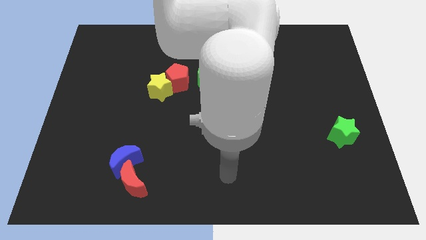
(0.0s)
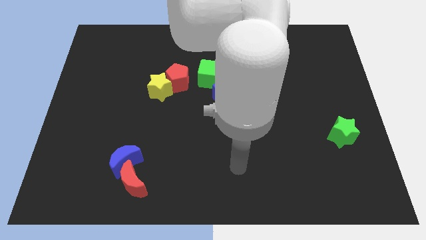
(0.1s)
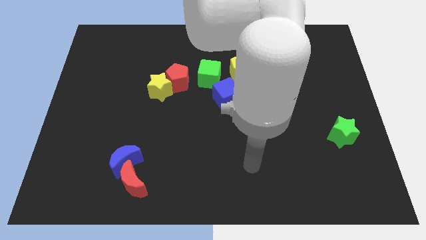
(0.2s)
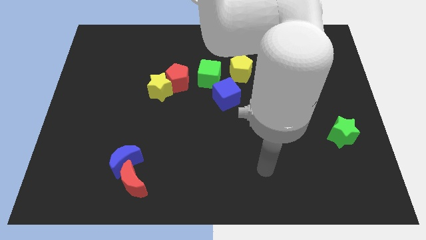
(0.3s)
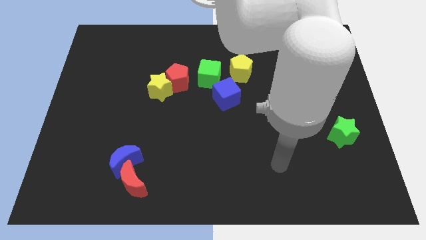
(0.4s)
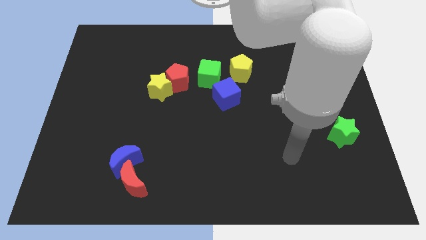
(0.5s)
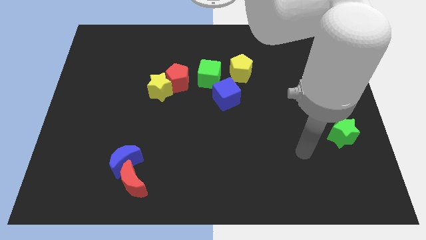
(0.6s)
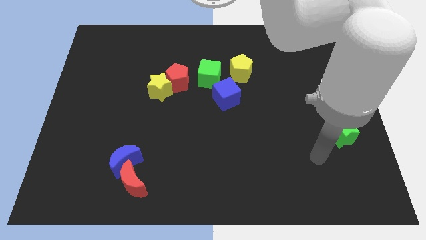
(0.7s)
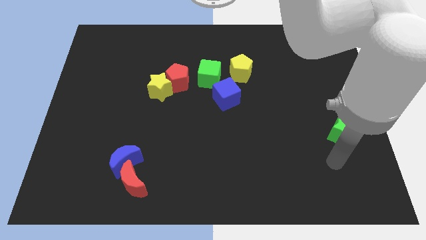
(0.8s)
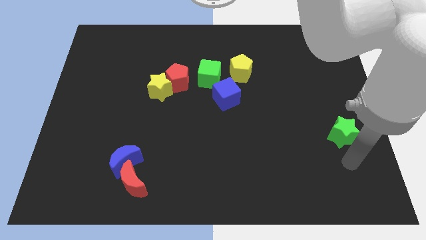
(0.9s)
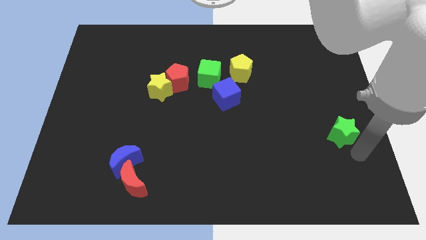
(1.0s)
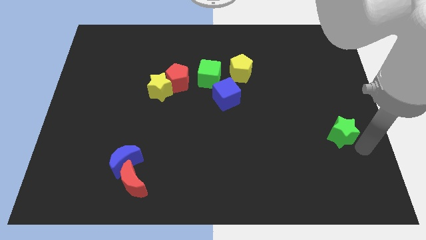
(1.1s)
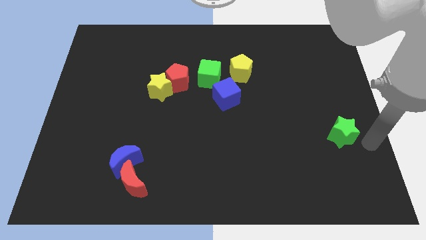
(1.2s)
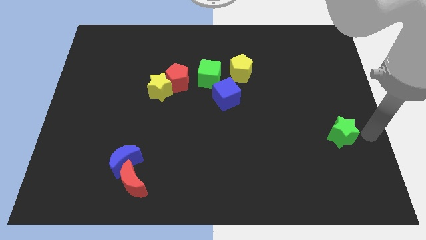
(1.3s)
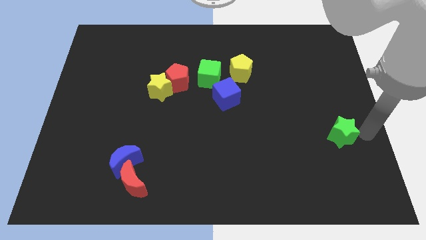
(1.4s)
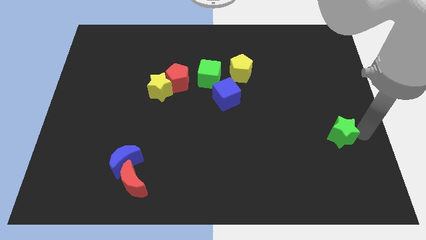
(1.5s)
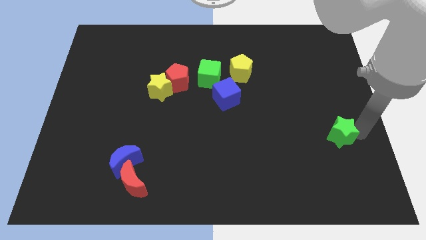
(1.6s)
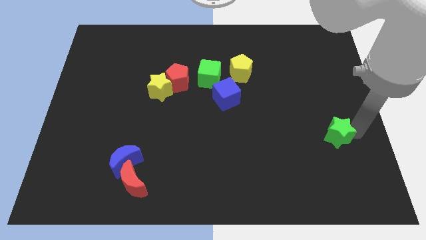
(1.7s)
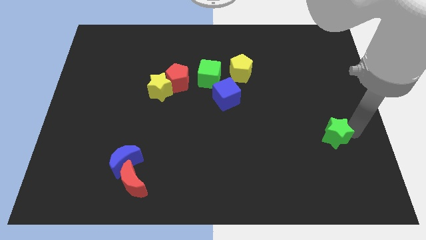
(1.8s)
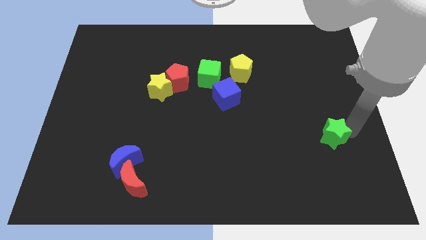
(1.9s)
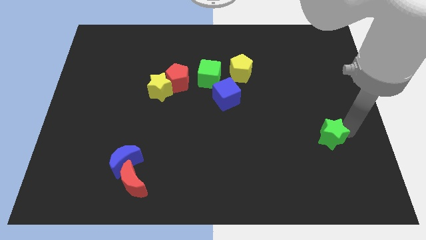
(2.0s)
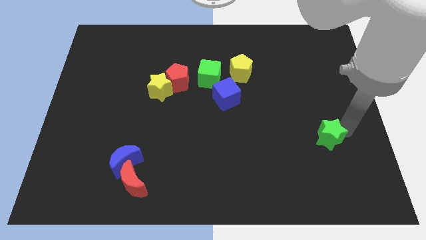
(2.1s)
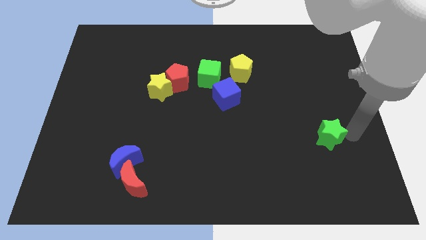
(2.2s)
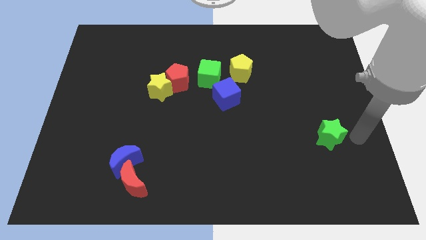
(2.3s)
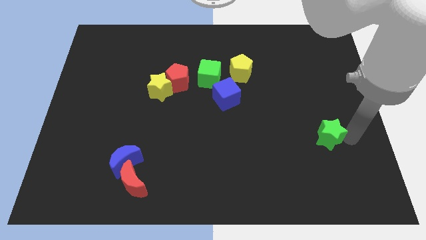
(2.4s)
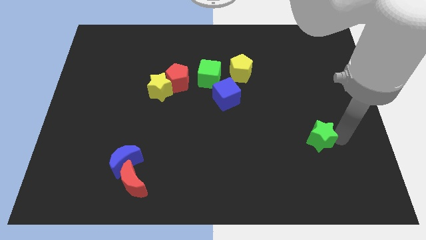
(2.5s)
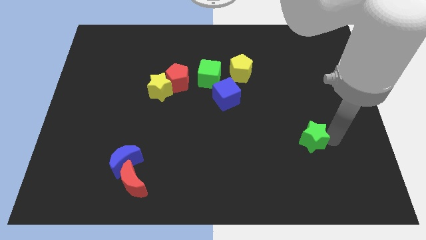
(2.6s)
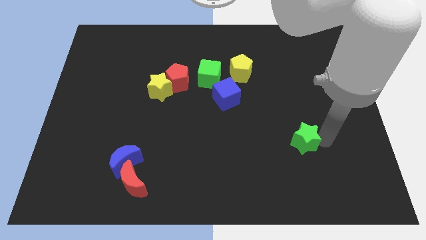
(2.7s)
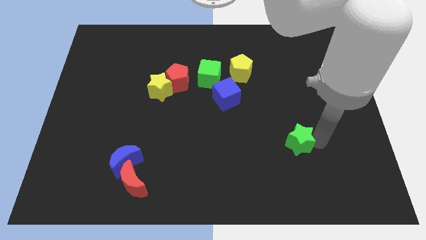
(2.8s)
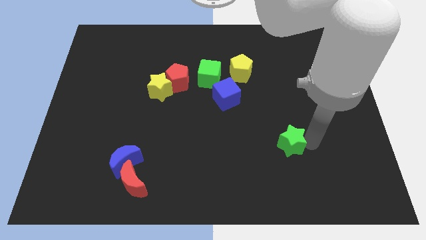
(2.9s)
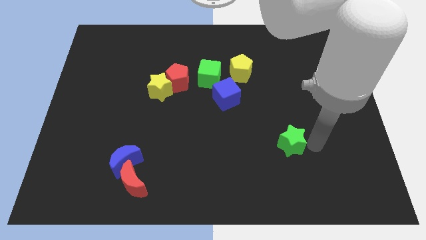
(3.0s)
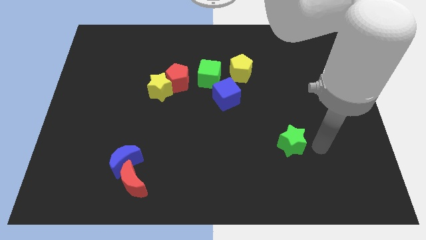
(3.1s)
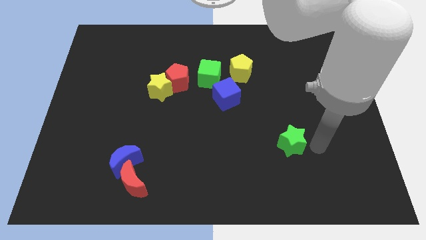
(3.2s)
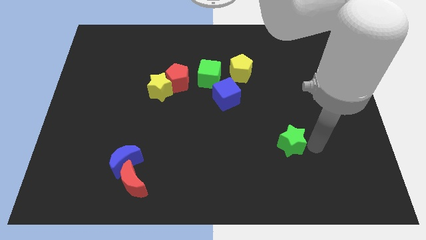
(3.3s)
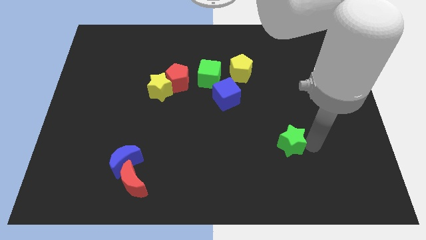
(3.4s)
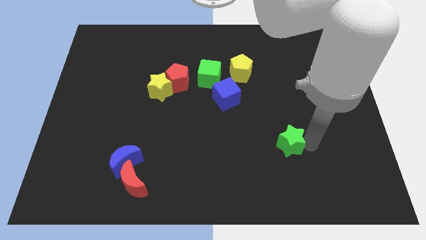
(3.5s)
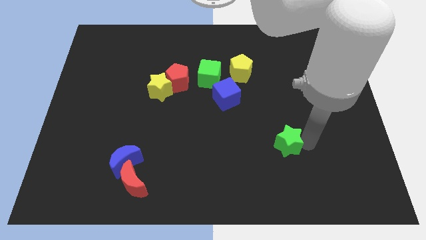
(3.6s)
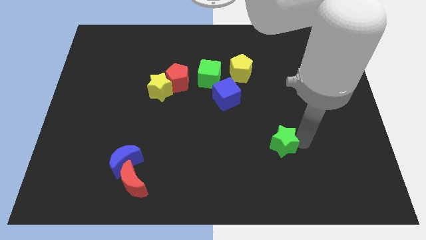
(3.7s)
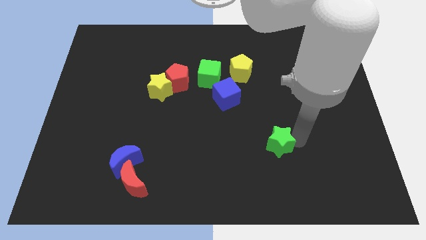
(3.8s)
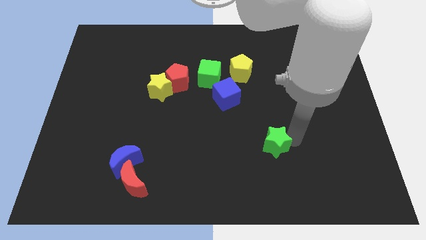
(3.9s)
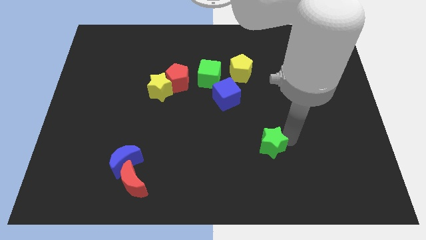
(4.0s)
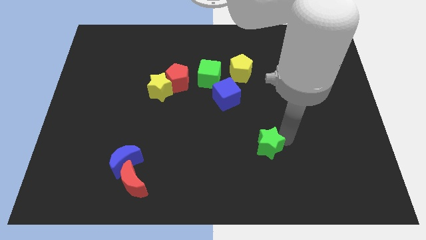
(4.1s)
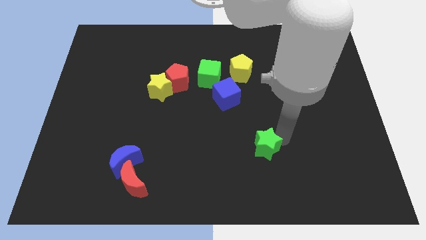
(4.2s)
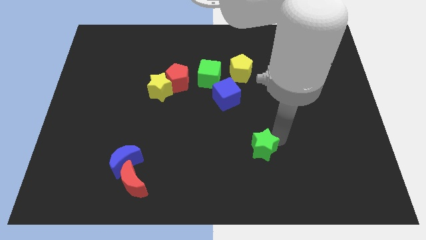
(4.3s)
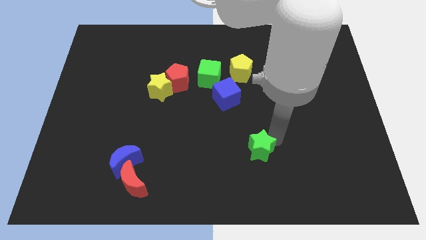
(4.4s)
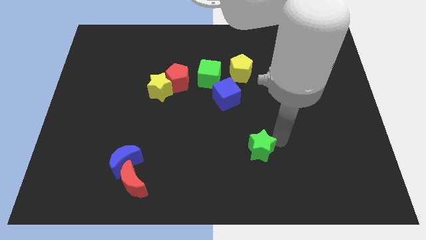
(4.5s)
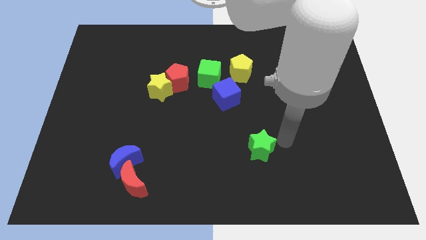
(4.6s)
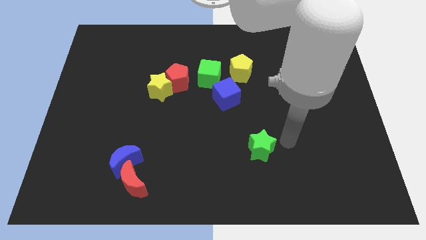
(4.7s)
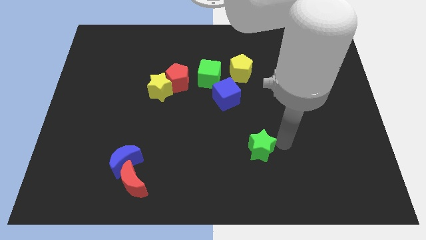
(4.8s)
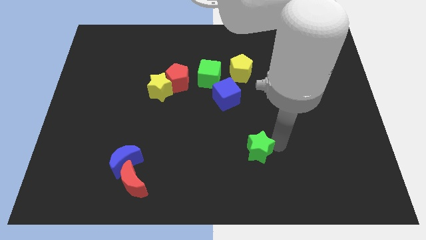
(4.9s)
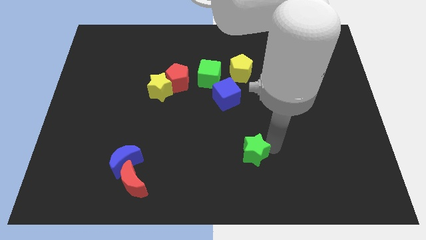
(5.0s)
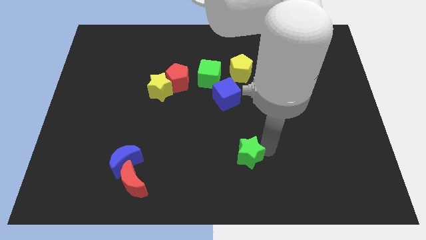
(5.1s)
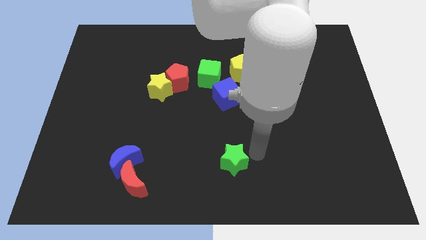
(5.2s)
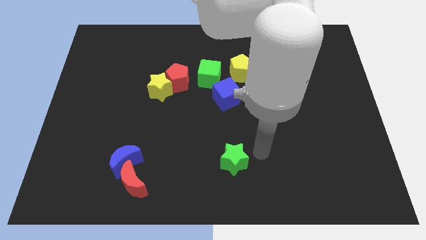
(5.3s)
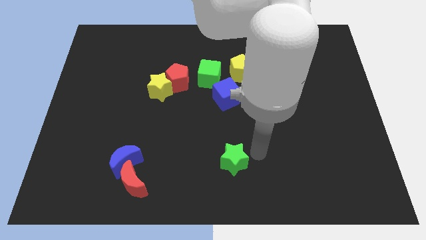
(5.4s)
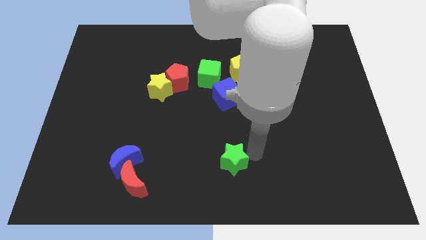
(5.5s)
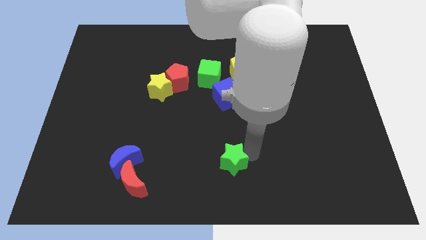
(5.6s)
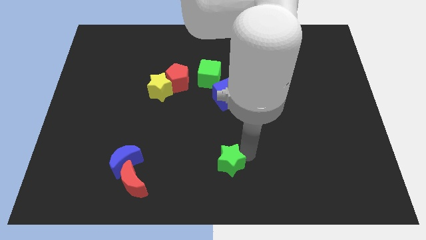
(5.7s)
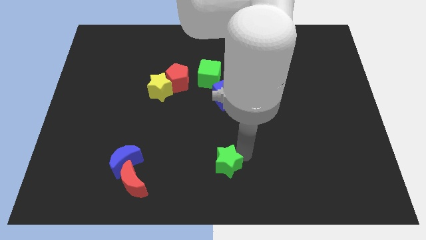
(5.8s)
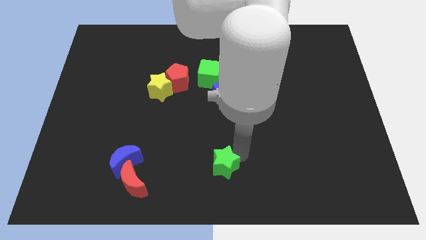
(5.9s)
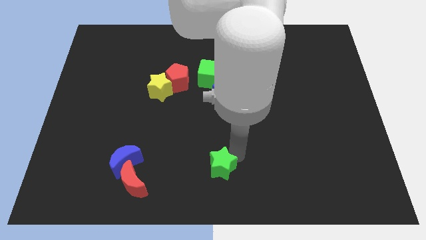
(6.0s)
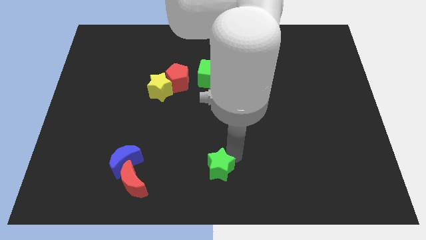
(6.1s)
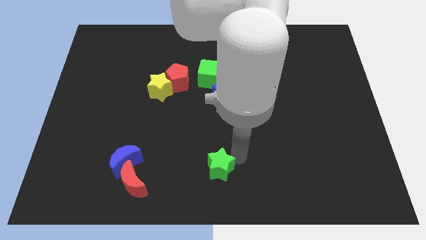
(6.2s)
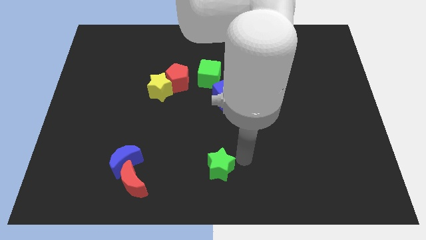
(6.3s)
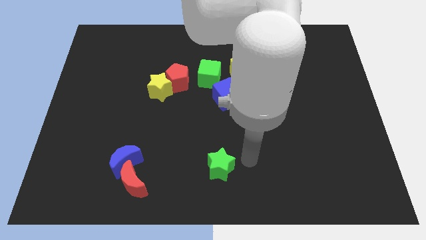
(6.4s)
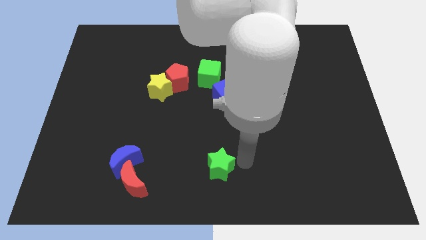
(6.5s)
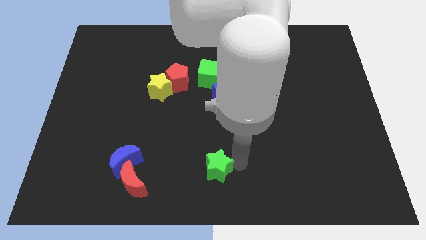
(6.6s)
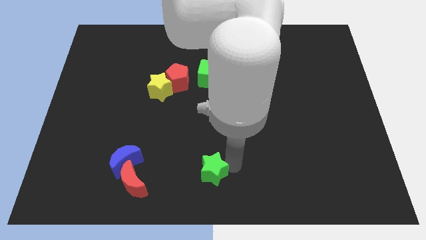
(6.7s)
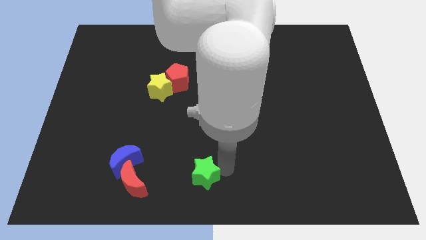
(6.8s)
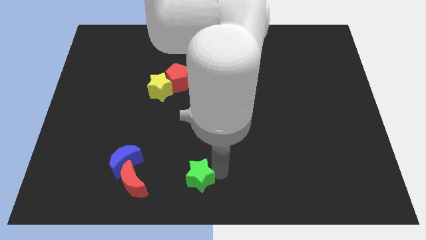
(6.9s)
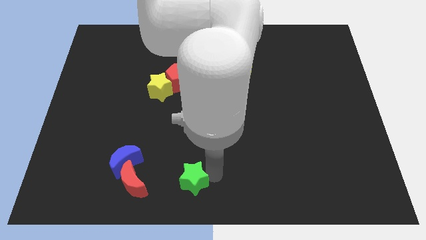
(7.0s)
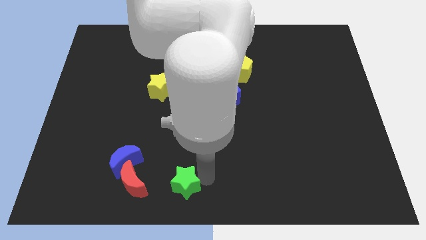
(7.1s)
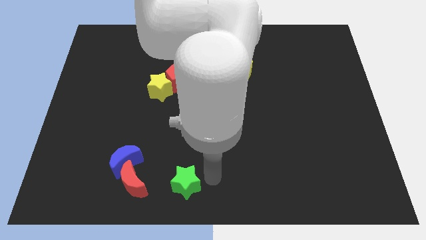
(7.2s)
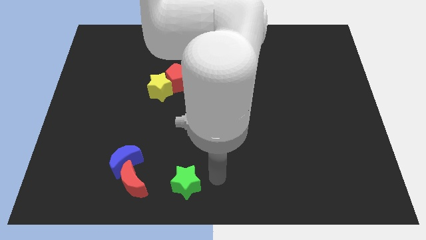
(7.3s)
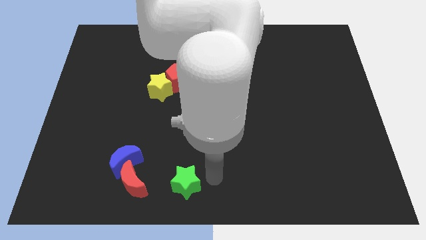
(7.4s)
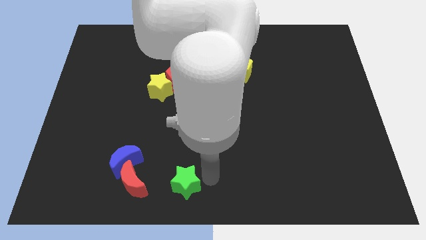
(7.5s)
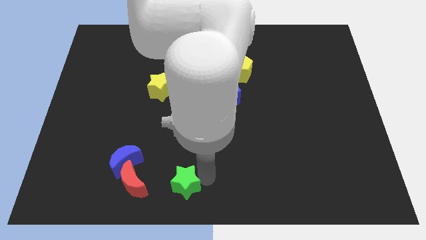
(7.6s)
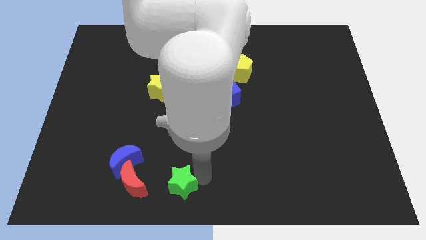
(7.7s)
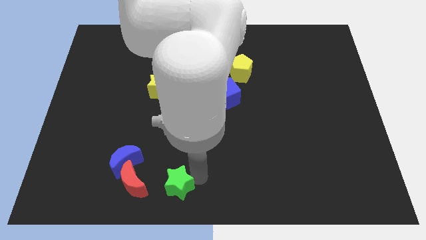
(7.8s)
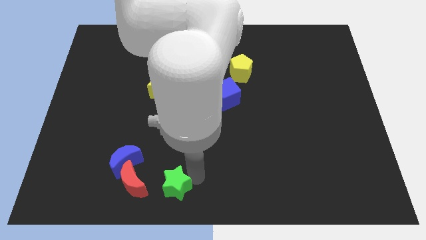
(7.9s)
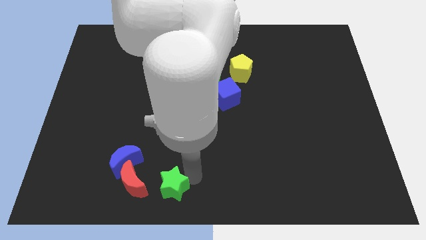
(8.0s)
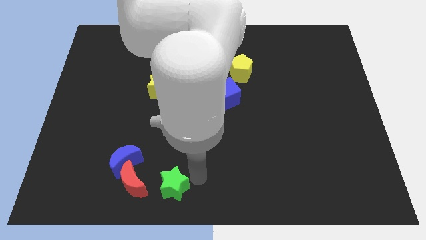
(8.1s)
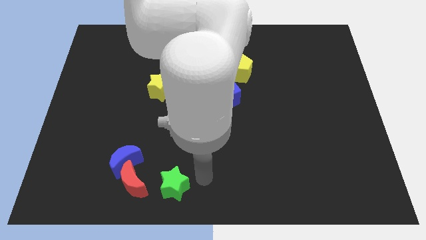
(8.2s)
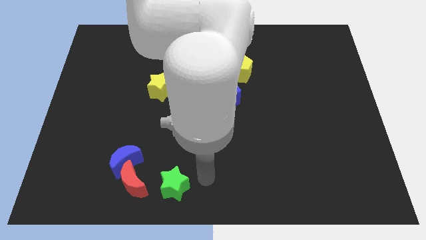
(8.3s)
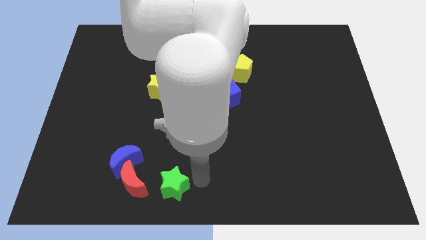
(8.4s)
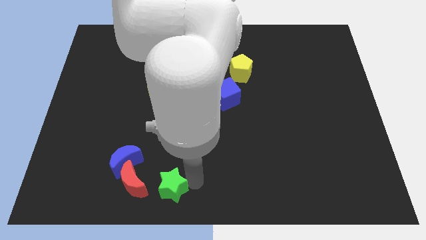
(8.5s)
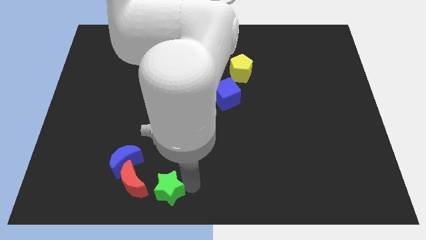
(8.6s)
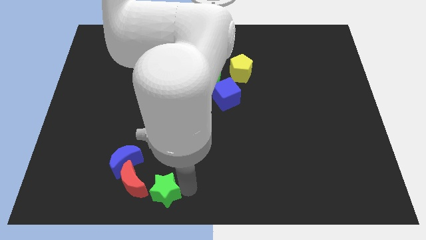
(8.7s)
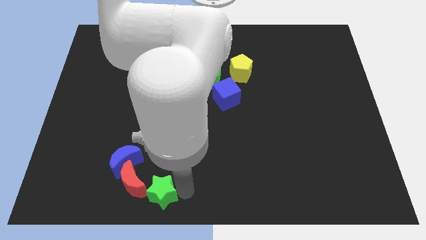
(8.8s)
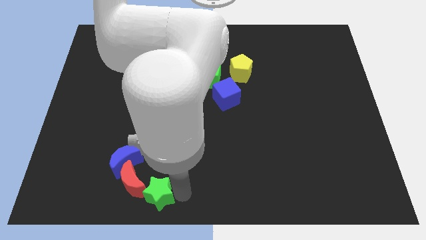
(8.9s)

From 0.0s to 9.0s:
slide the green star close to the red moon
